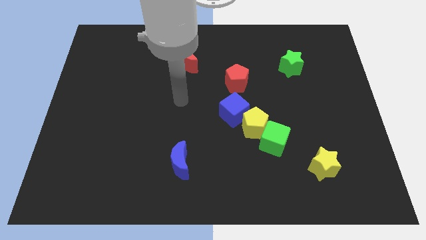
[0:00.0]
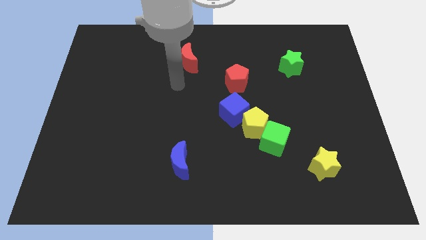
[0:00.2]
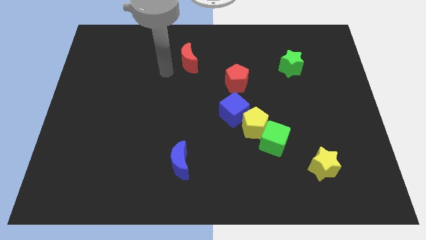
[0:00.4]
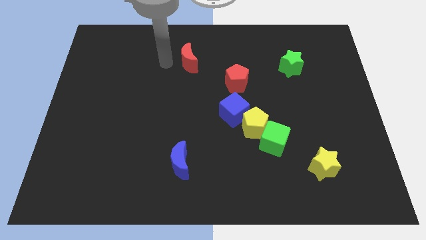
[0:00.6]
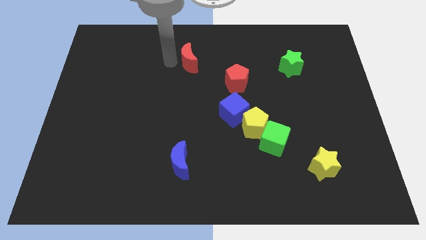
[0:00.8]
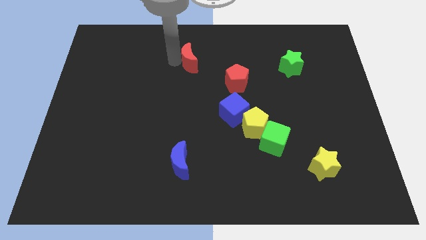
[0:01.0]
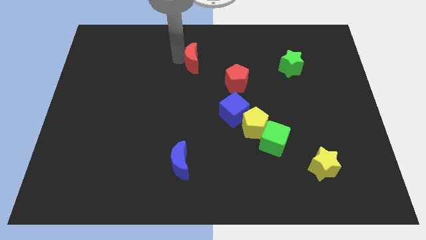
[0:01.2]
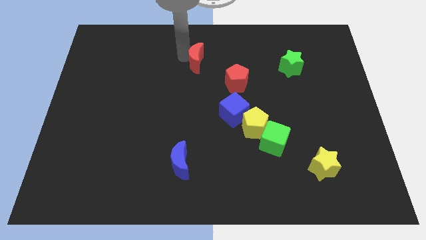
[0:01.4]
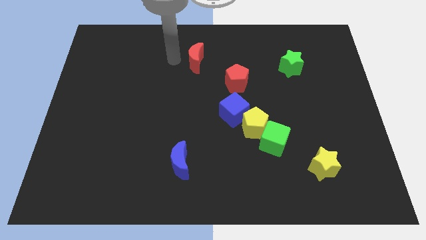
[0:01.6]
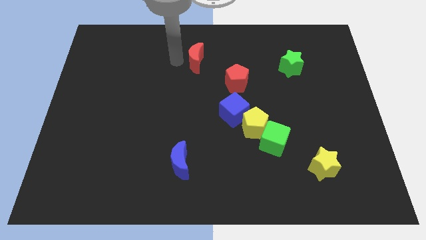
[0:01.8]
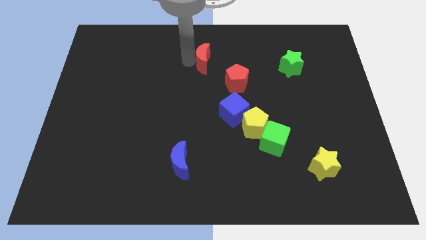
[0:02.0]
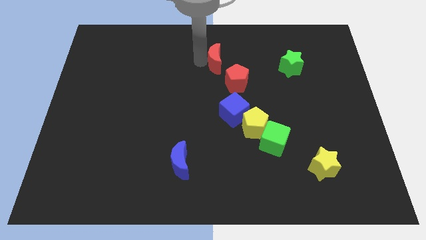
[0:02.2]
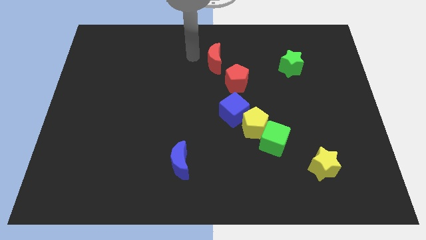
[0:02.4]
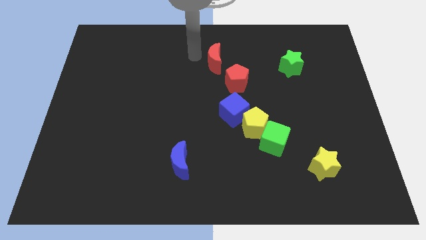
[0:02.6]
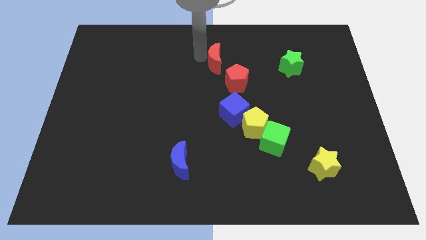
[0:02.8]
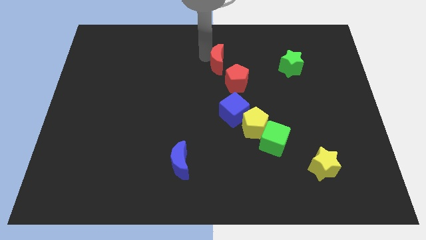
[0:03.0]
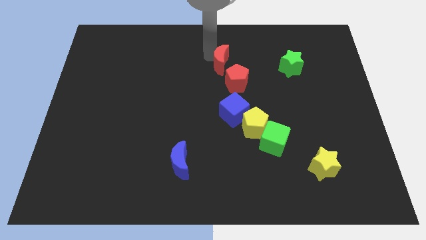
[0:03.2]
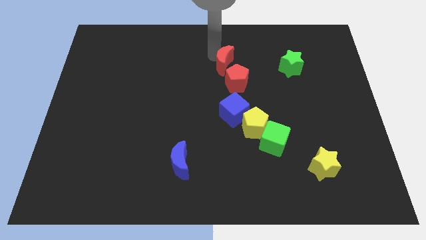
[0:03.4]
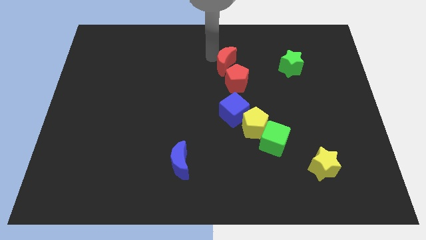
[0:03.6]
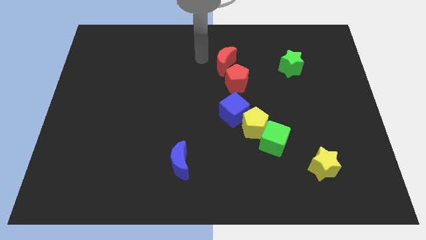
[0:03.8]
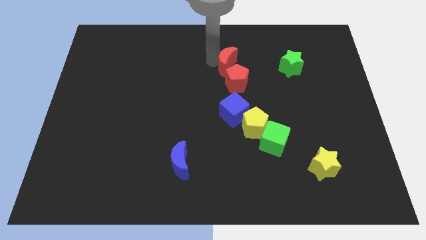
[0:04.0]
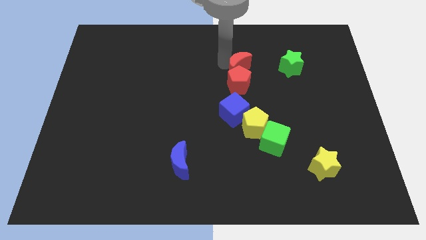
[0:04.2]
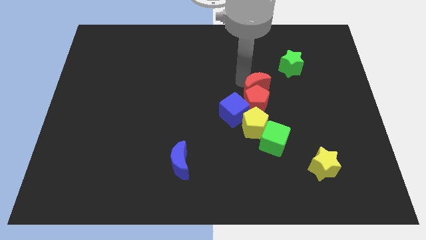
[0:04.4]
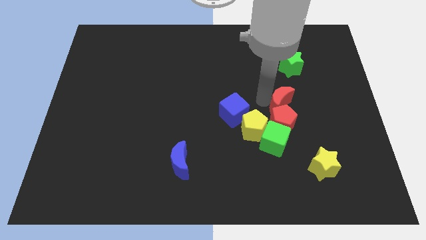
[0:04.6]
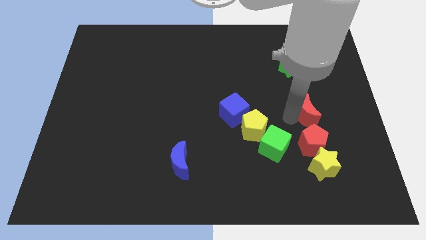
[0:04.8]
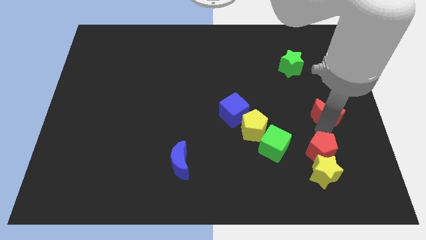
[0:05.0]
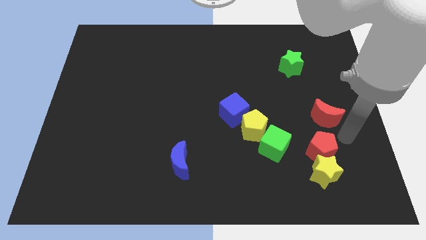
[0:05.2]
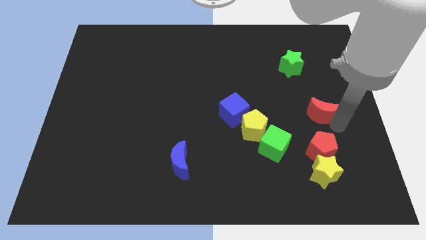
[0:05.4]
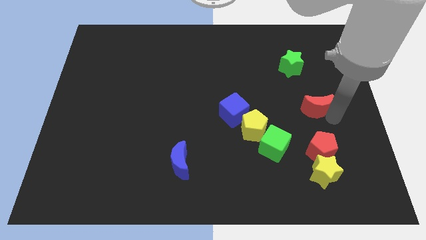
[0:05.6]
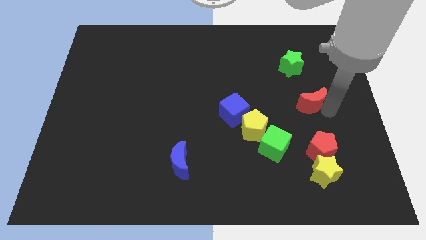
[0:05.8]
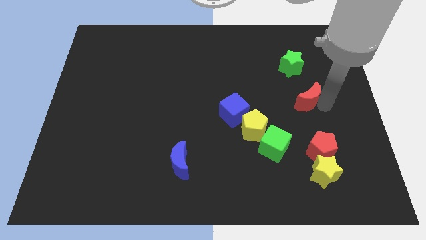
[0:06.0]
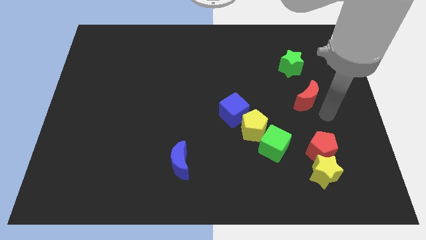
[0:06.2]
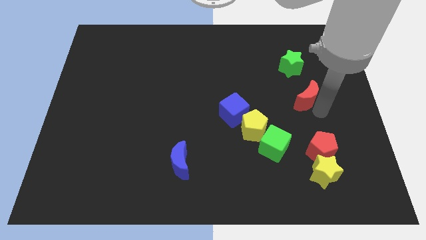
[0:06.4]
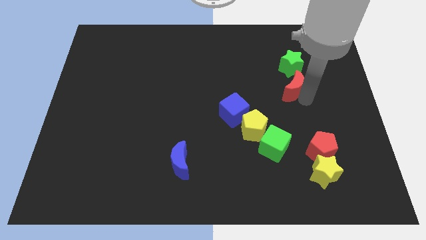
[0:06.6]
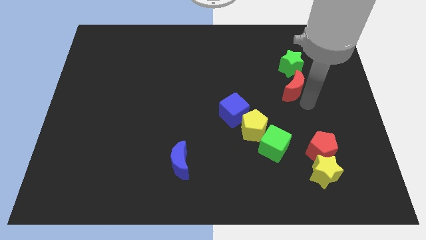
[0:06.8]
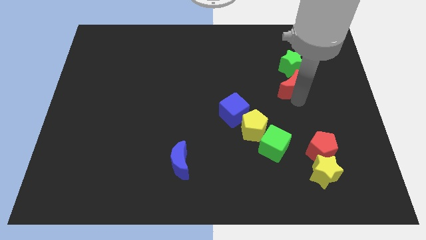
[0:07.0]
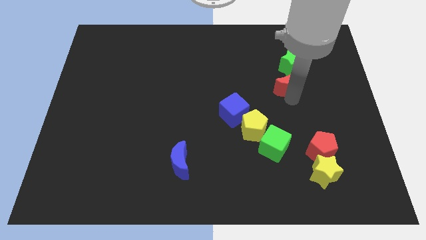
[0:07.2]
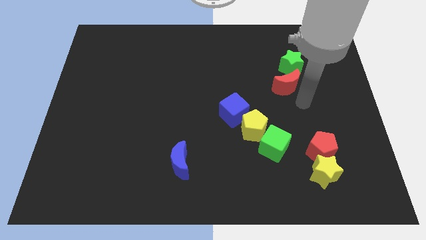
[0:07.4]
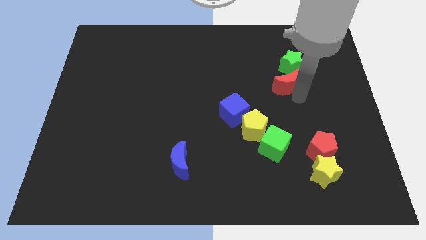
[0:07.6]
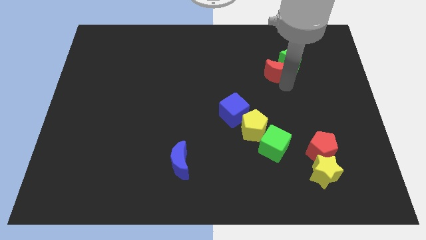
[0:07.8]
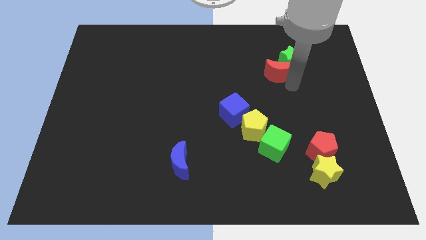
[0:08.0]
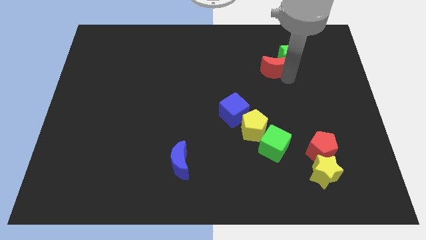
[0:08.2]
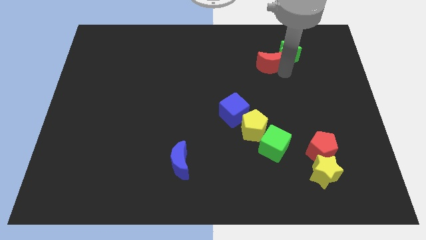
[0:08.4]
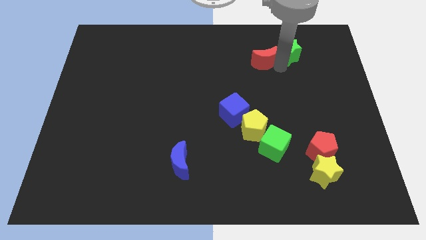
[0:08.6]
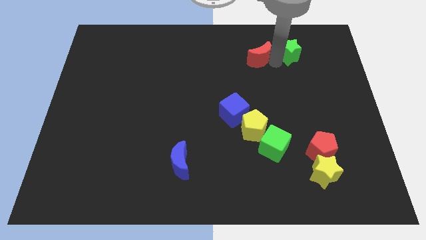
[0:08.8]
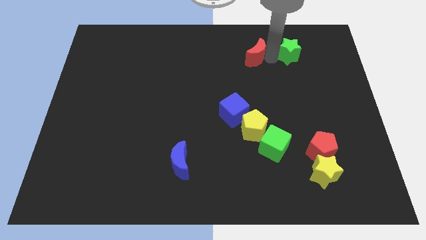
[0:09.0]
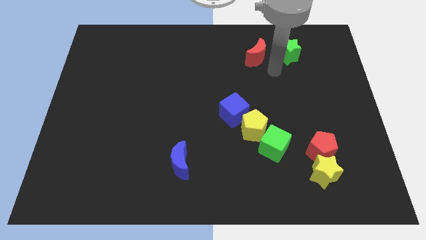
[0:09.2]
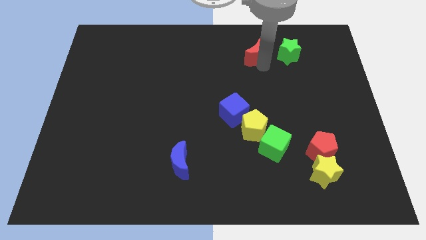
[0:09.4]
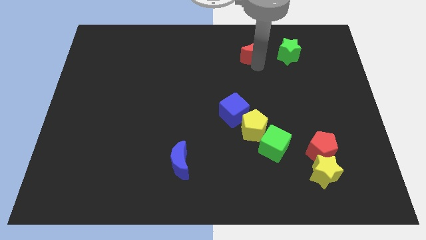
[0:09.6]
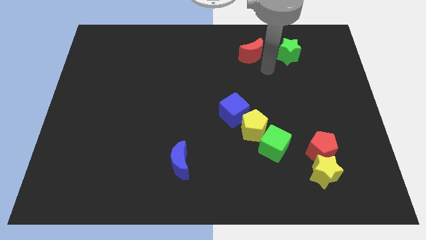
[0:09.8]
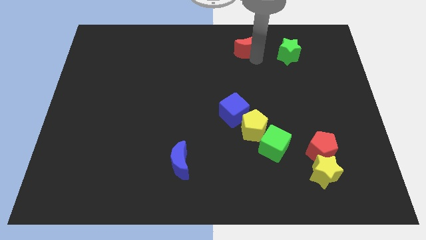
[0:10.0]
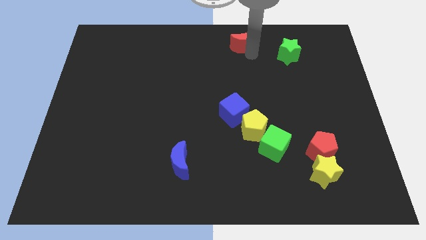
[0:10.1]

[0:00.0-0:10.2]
put the red moon to the top side

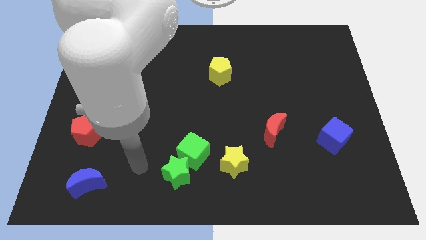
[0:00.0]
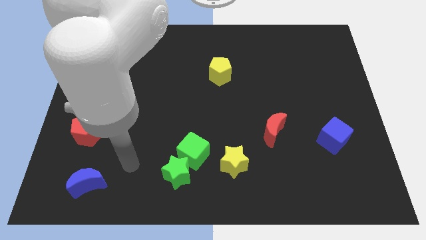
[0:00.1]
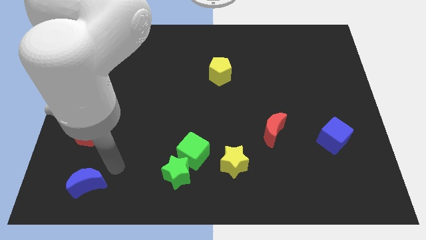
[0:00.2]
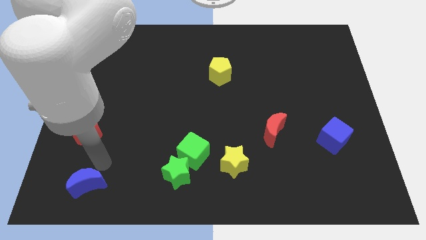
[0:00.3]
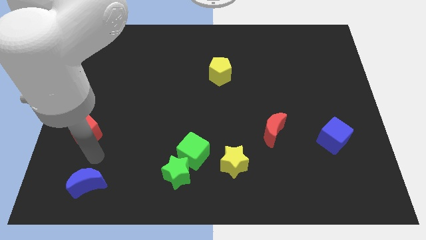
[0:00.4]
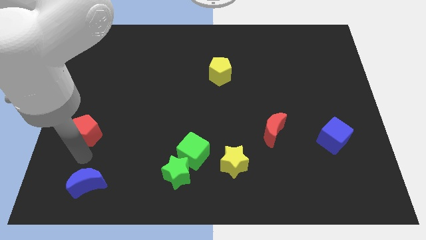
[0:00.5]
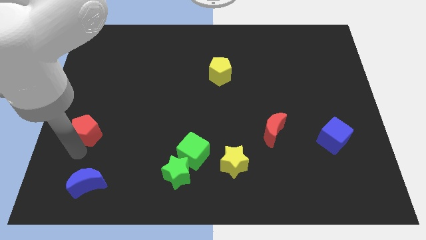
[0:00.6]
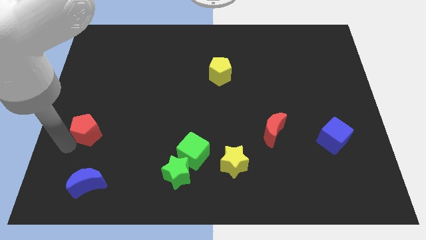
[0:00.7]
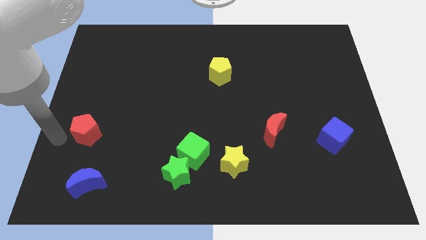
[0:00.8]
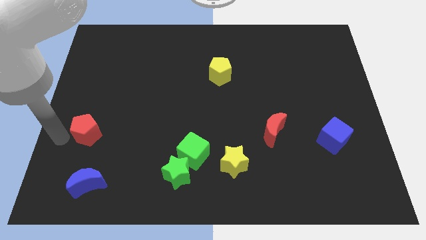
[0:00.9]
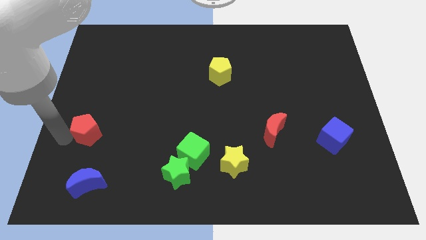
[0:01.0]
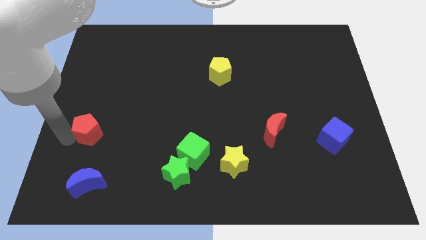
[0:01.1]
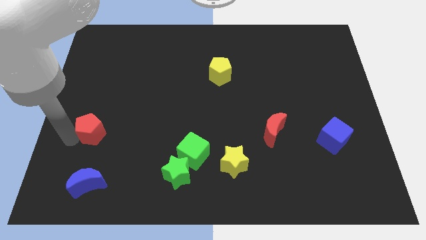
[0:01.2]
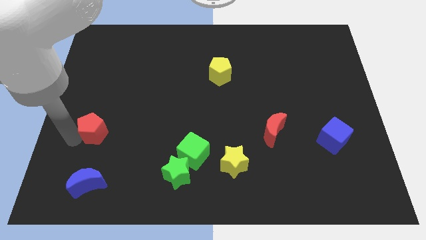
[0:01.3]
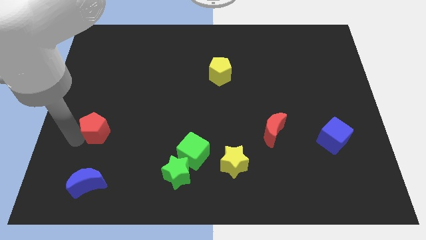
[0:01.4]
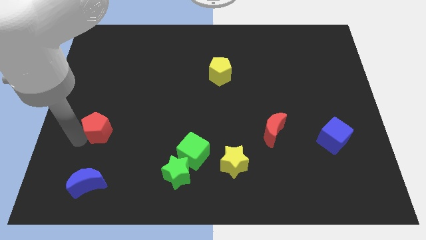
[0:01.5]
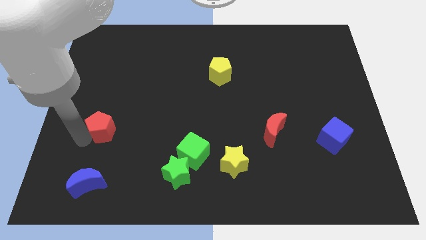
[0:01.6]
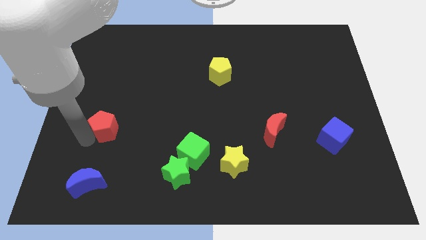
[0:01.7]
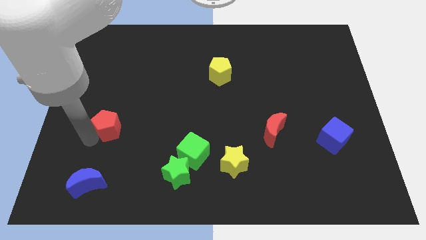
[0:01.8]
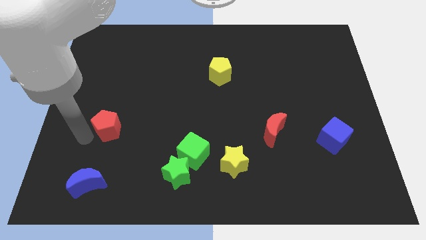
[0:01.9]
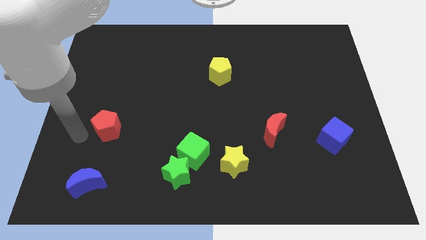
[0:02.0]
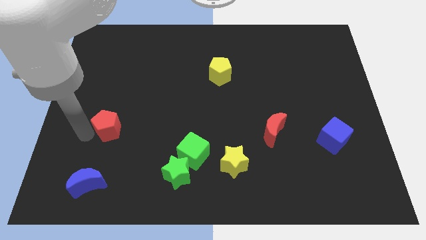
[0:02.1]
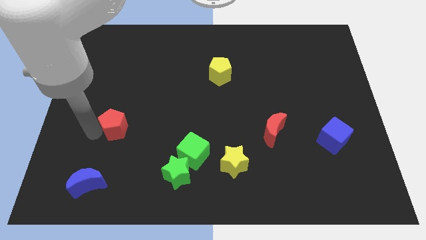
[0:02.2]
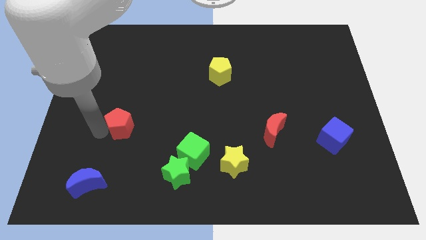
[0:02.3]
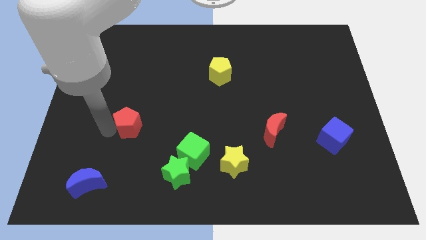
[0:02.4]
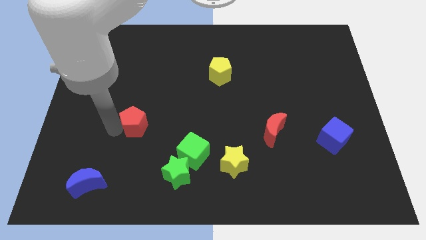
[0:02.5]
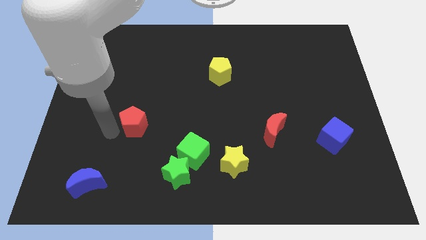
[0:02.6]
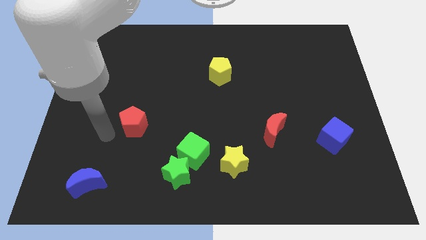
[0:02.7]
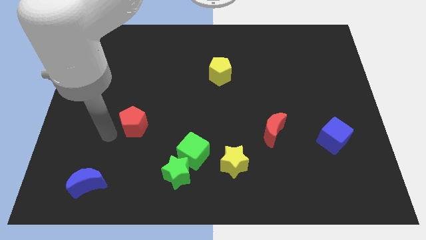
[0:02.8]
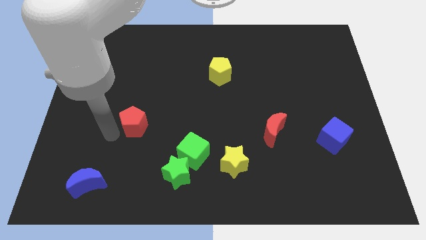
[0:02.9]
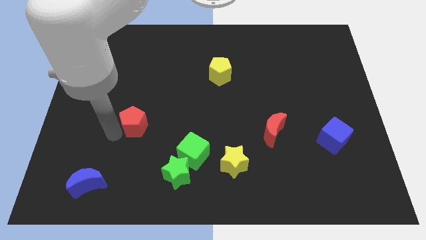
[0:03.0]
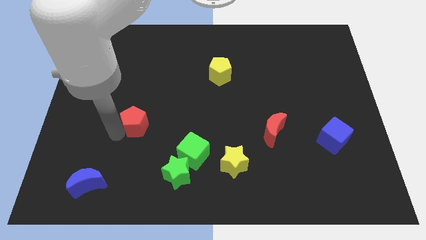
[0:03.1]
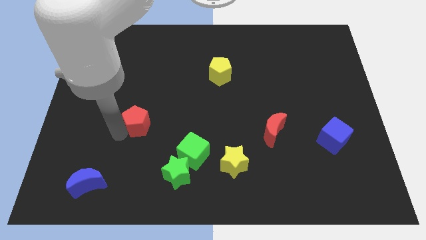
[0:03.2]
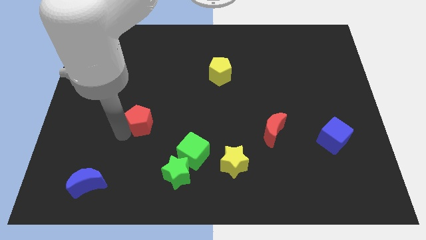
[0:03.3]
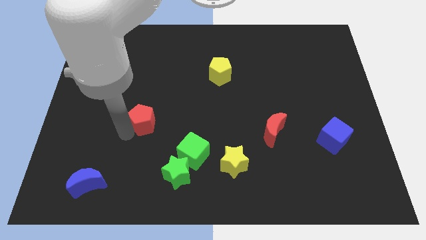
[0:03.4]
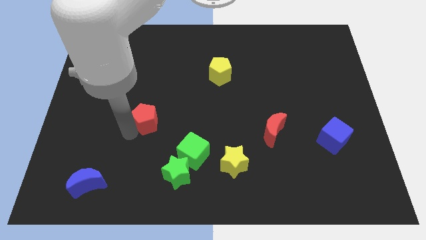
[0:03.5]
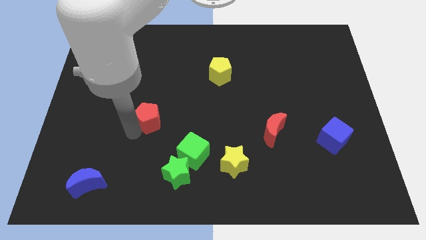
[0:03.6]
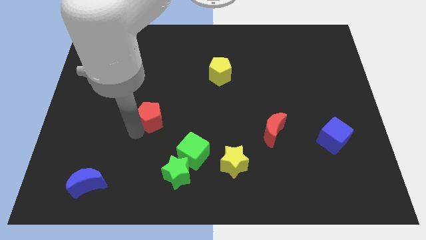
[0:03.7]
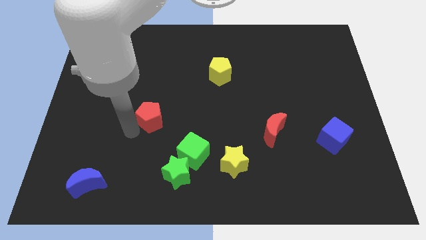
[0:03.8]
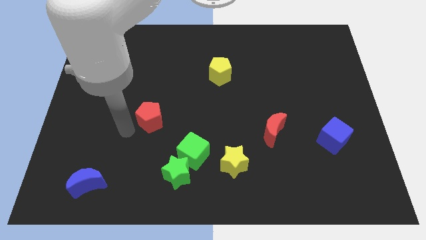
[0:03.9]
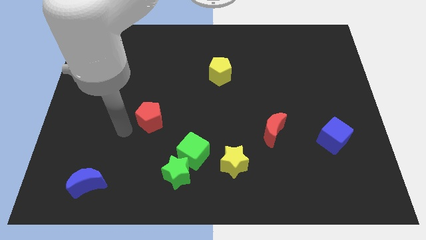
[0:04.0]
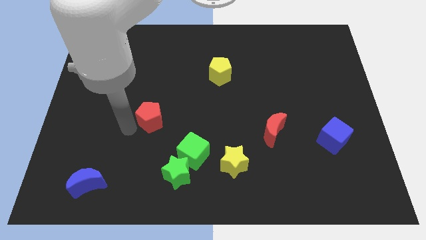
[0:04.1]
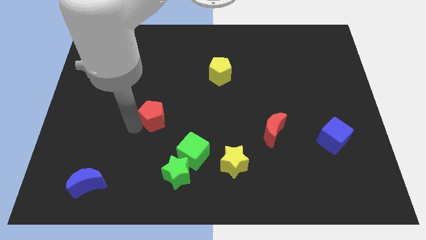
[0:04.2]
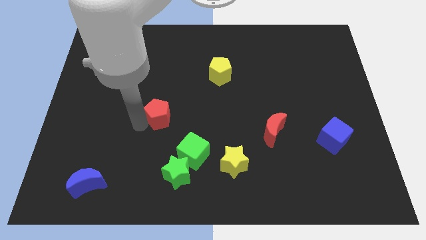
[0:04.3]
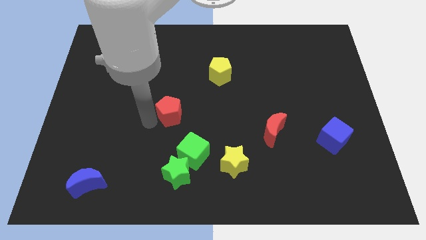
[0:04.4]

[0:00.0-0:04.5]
push the red pentagon to the center of the board
